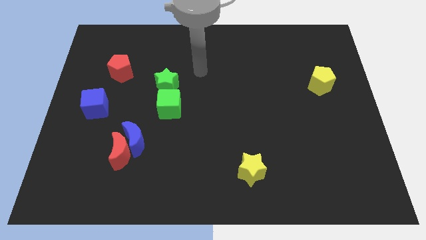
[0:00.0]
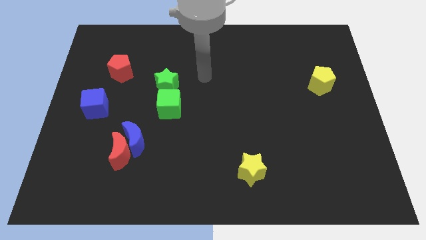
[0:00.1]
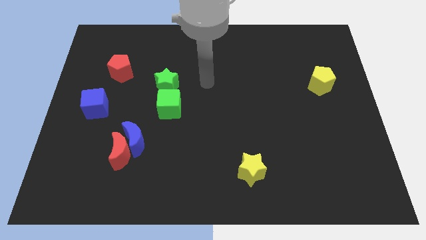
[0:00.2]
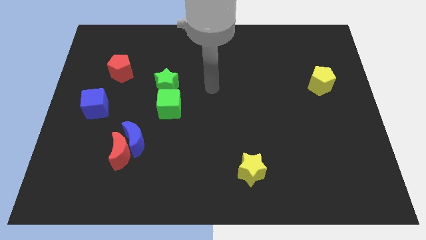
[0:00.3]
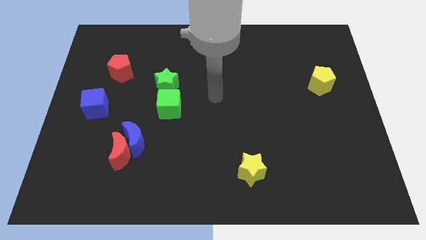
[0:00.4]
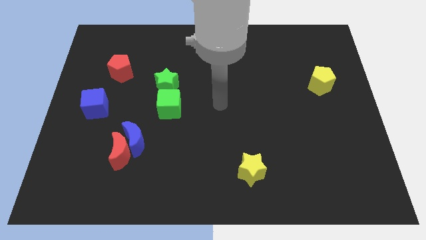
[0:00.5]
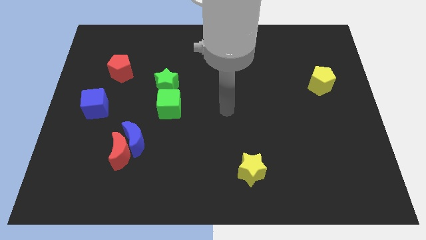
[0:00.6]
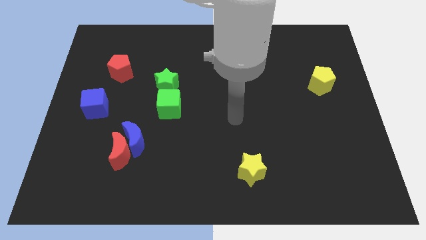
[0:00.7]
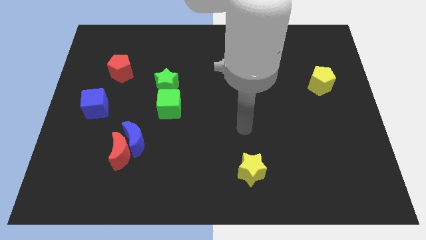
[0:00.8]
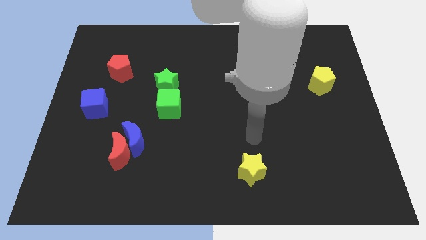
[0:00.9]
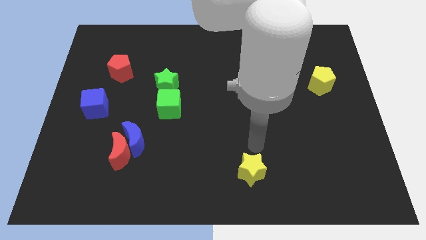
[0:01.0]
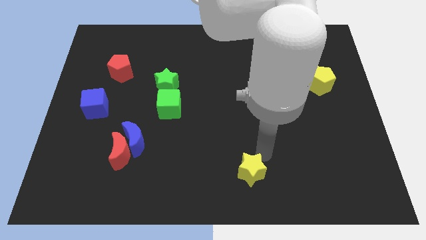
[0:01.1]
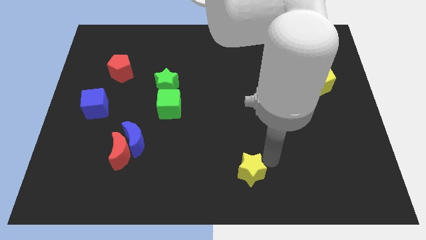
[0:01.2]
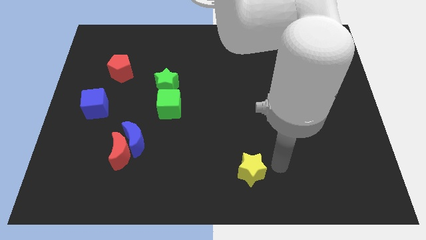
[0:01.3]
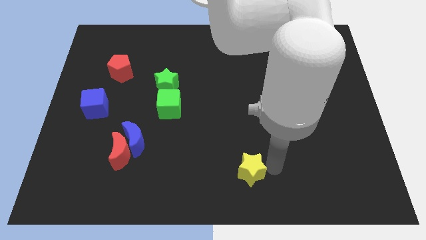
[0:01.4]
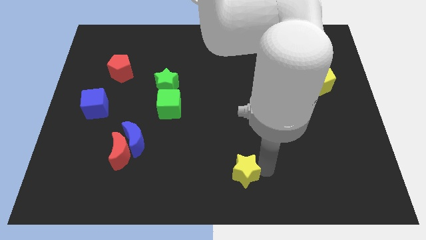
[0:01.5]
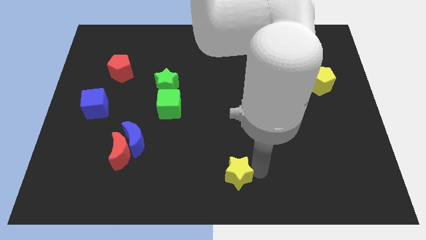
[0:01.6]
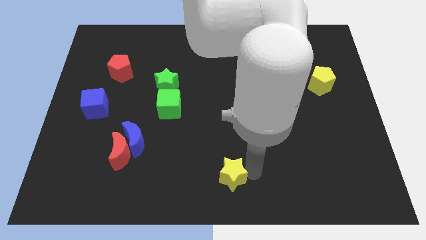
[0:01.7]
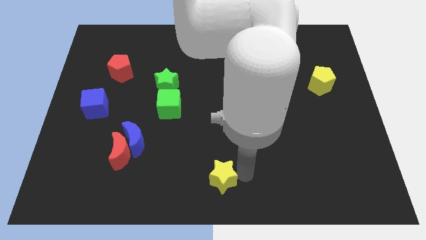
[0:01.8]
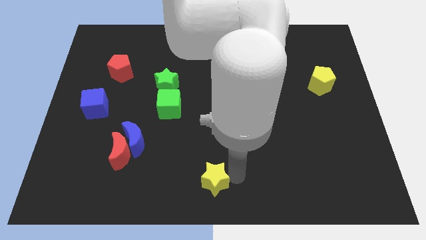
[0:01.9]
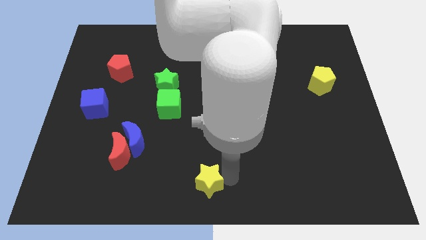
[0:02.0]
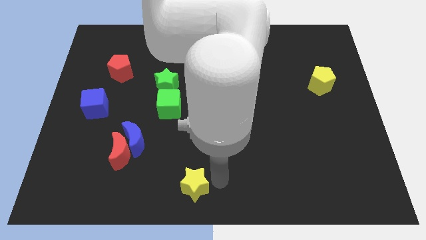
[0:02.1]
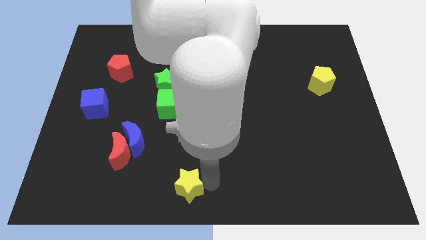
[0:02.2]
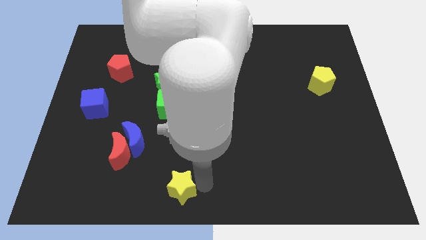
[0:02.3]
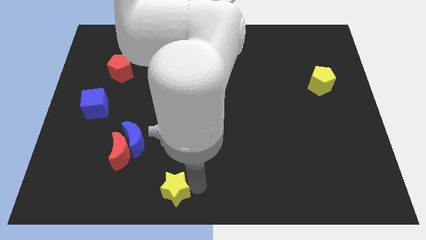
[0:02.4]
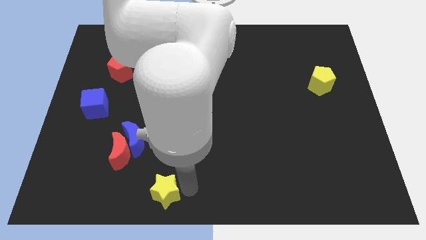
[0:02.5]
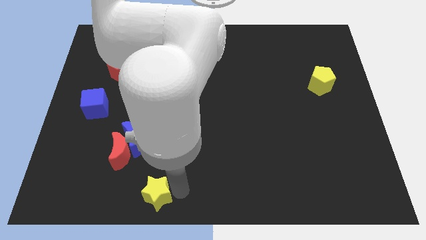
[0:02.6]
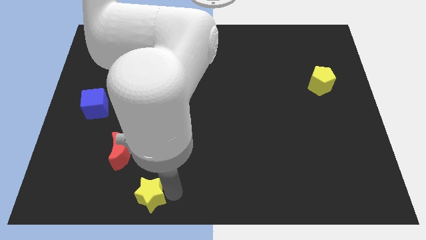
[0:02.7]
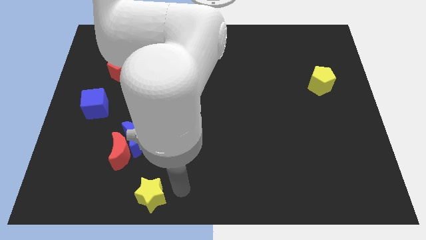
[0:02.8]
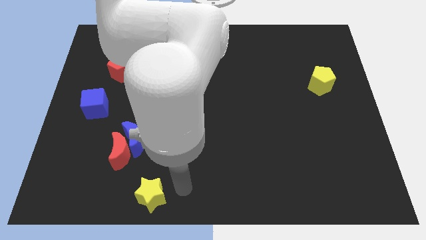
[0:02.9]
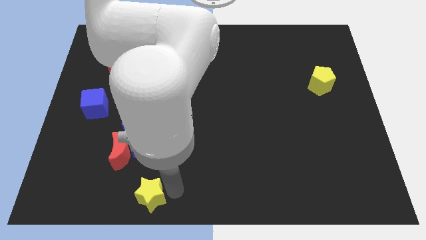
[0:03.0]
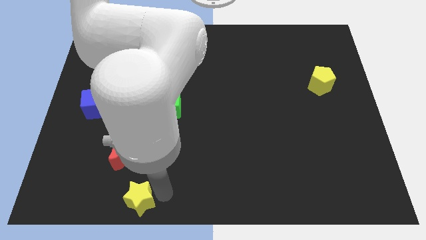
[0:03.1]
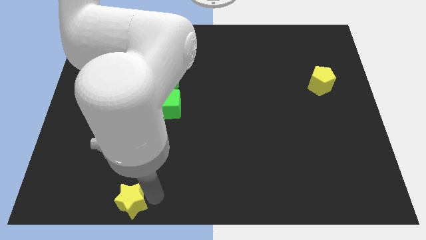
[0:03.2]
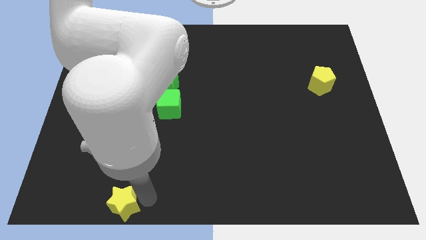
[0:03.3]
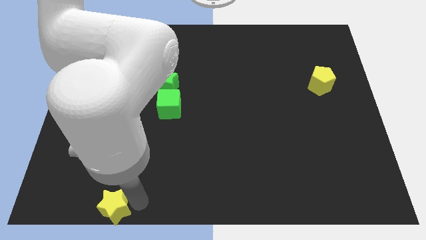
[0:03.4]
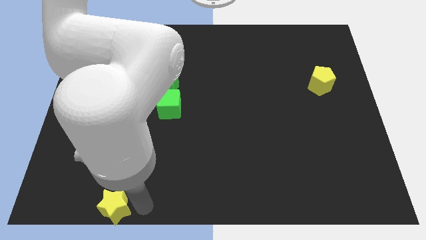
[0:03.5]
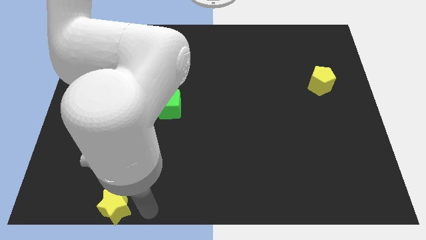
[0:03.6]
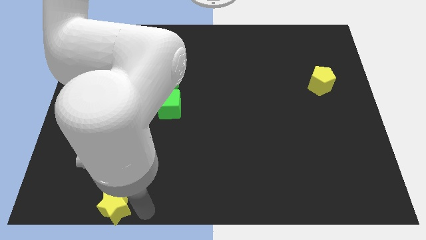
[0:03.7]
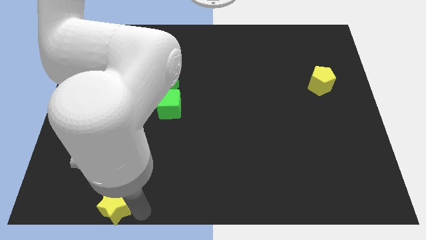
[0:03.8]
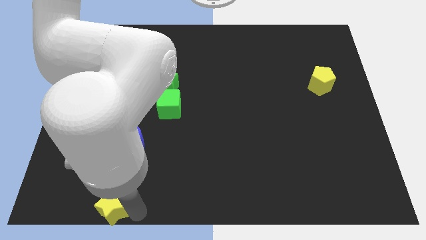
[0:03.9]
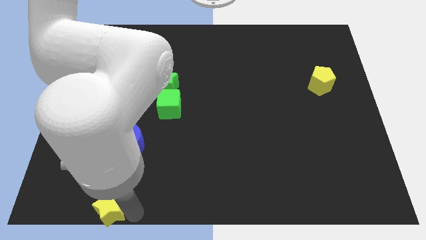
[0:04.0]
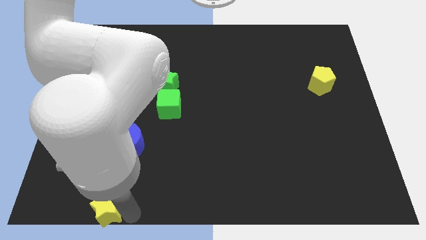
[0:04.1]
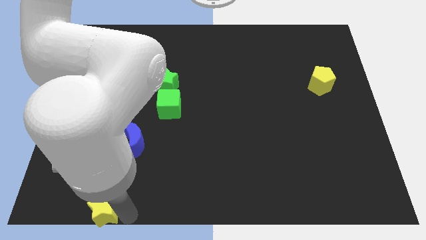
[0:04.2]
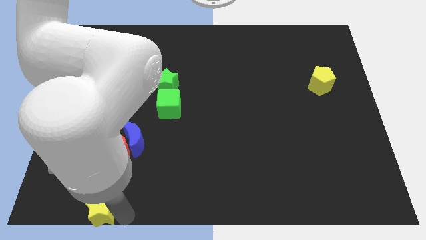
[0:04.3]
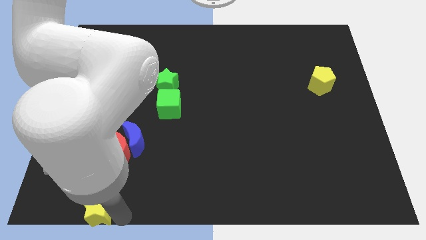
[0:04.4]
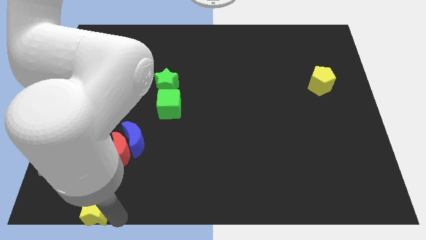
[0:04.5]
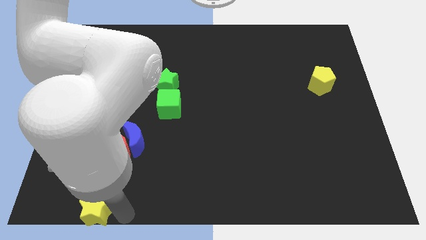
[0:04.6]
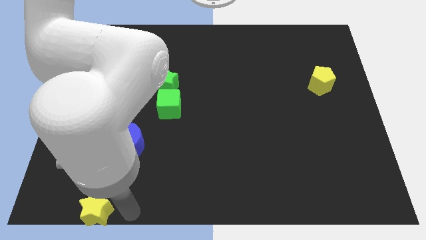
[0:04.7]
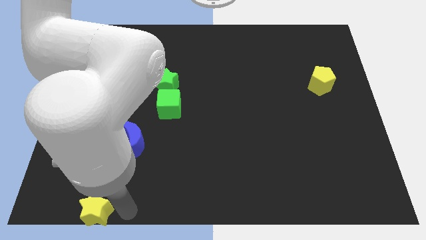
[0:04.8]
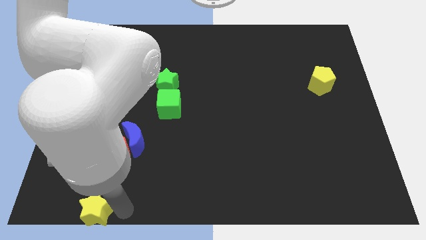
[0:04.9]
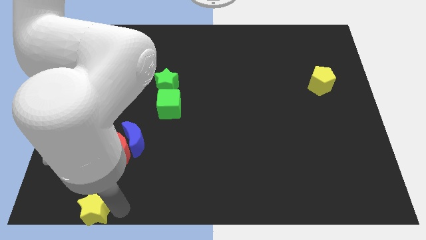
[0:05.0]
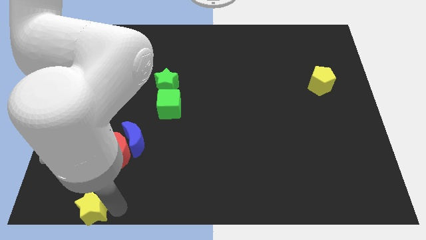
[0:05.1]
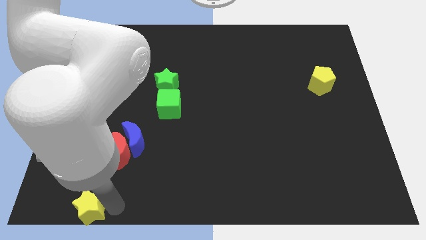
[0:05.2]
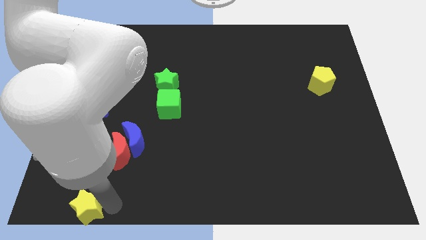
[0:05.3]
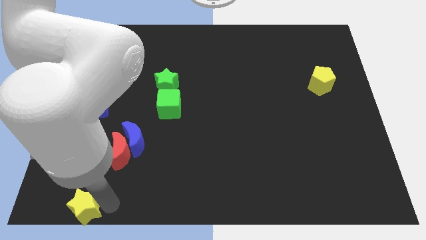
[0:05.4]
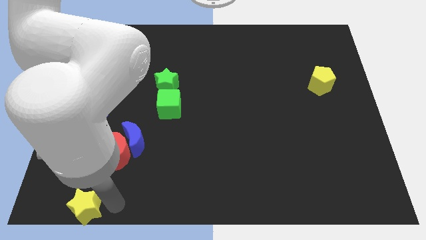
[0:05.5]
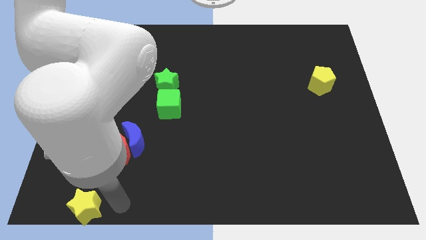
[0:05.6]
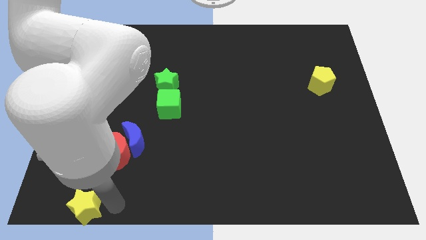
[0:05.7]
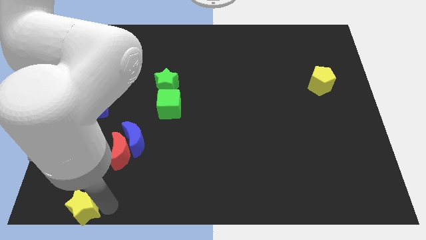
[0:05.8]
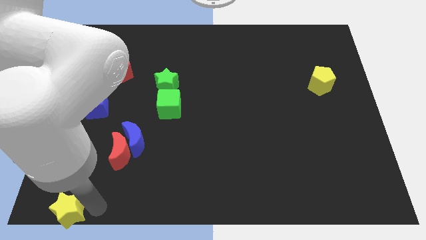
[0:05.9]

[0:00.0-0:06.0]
slide the yellow star to the bottom left of the board

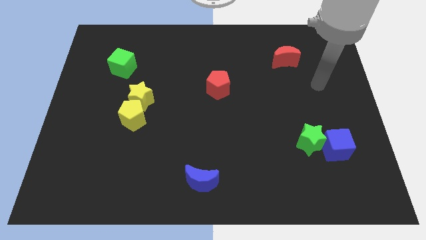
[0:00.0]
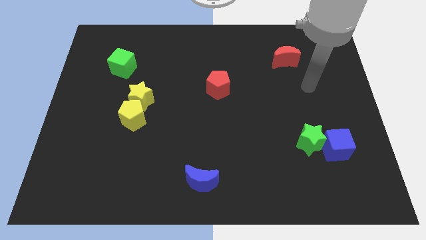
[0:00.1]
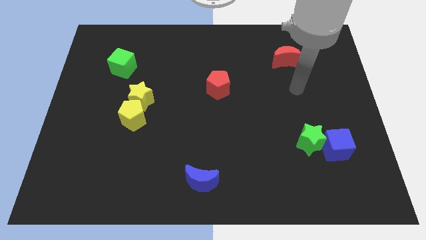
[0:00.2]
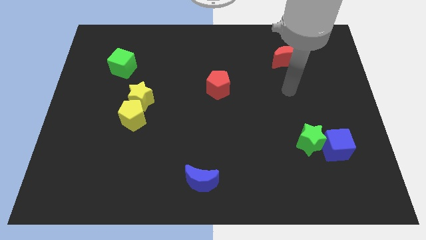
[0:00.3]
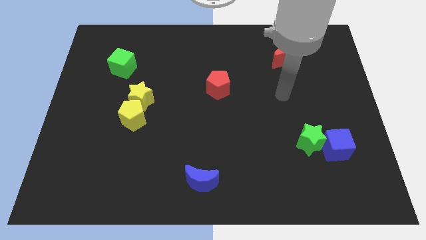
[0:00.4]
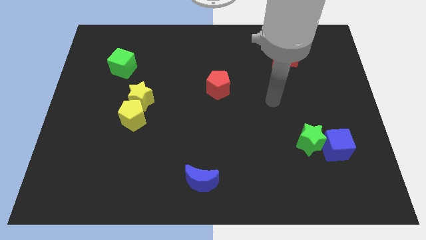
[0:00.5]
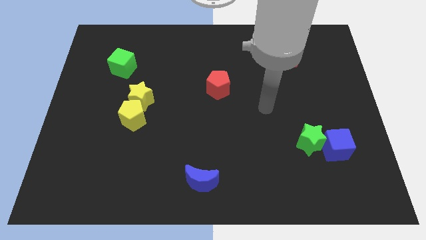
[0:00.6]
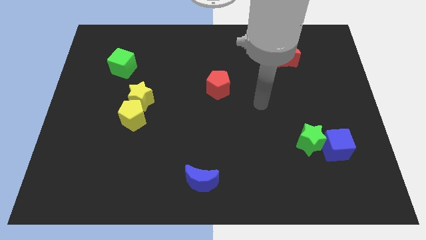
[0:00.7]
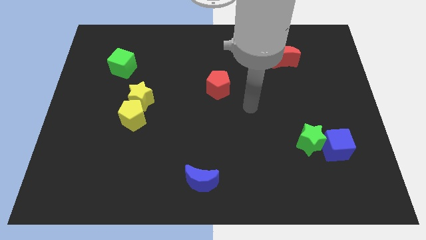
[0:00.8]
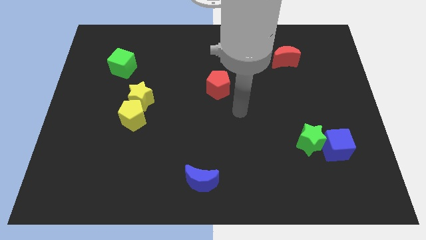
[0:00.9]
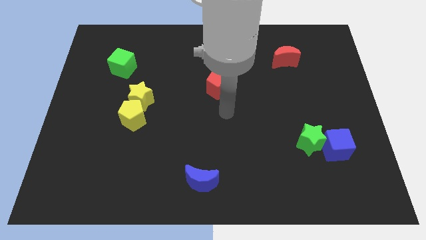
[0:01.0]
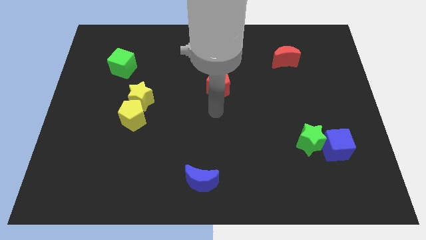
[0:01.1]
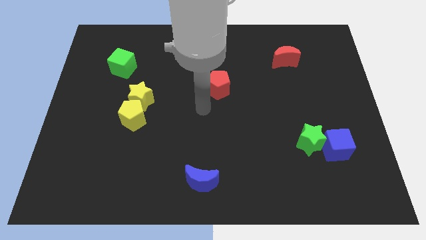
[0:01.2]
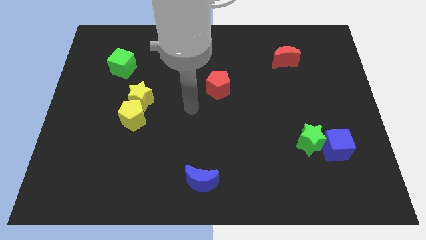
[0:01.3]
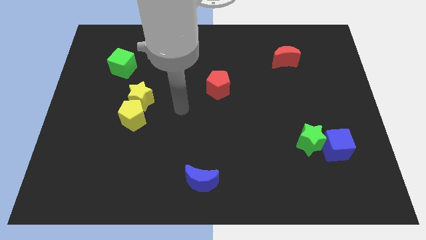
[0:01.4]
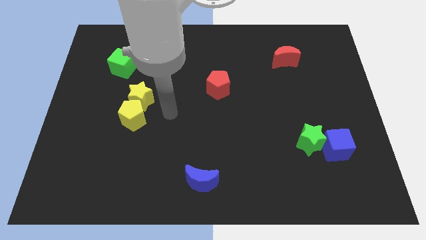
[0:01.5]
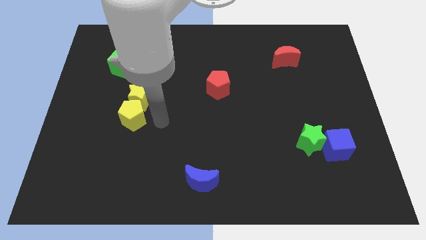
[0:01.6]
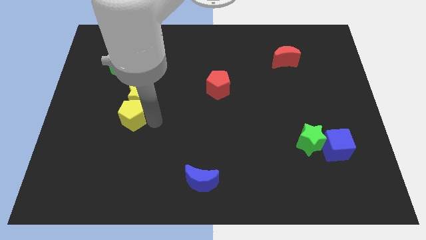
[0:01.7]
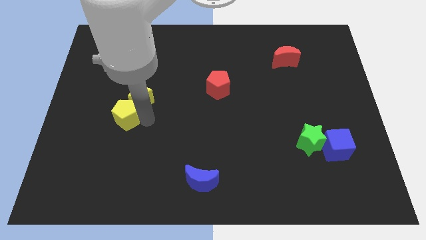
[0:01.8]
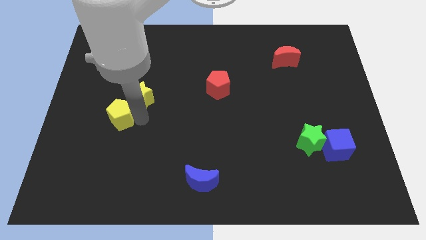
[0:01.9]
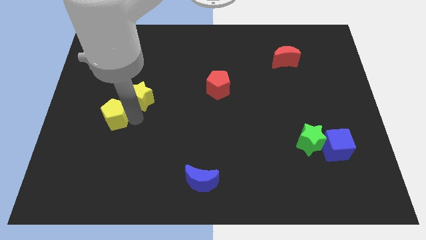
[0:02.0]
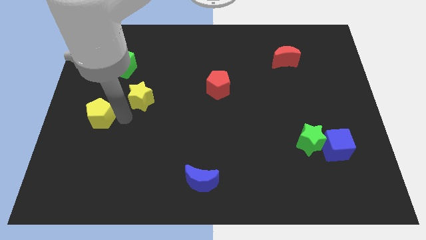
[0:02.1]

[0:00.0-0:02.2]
slide the yellow pentagon to the left side
